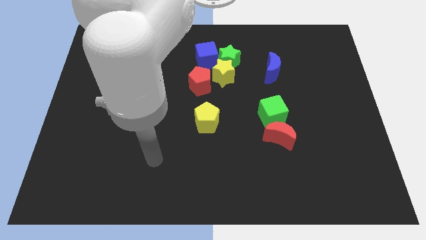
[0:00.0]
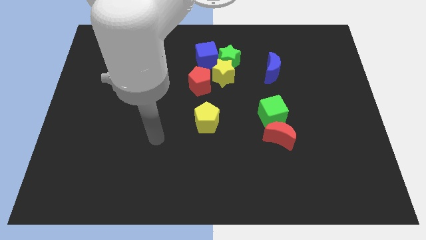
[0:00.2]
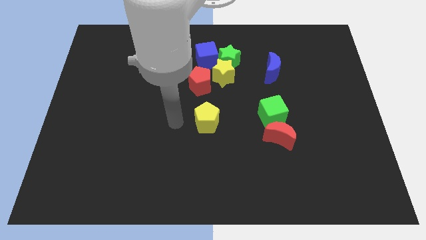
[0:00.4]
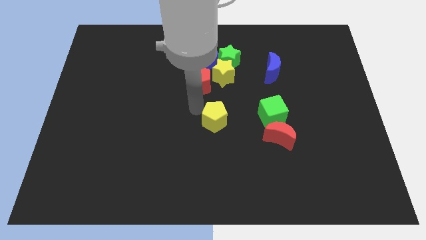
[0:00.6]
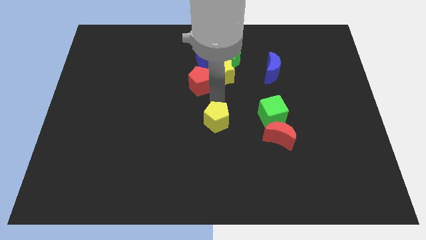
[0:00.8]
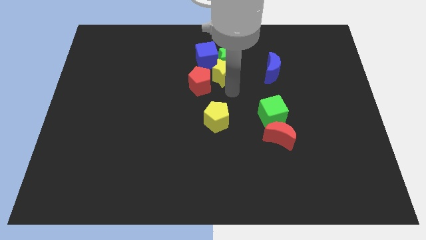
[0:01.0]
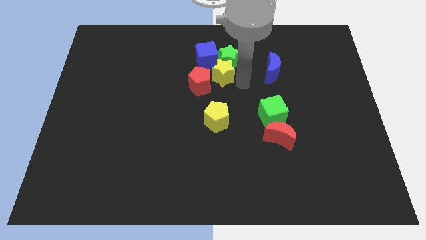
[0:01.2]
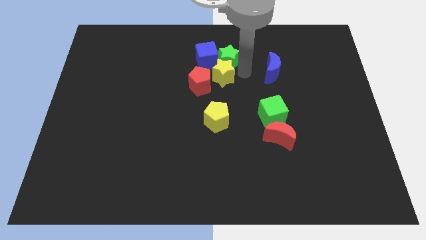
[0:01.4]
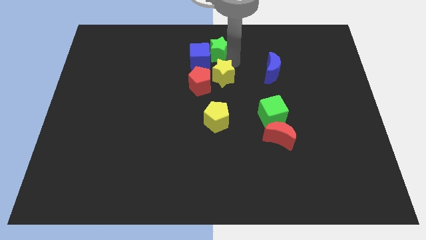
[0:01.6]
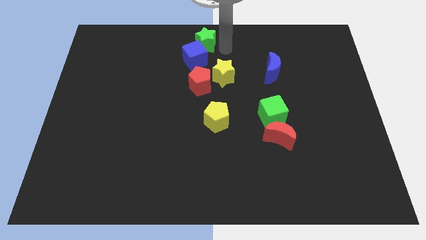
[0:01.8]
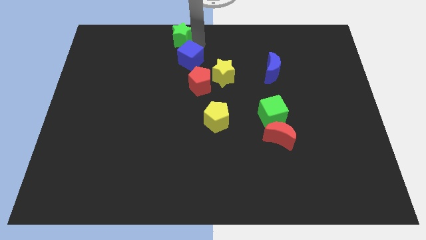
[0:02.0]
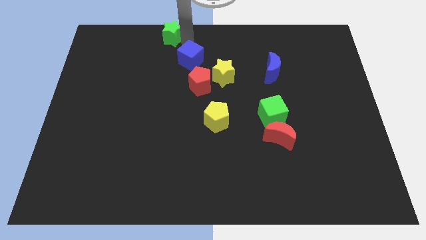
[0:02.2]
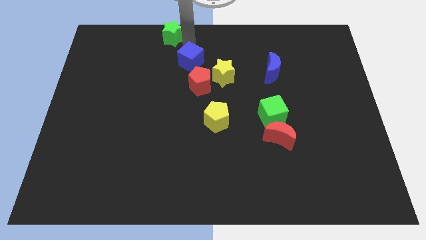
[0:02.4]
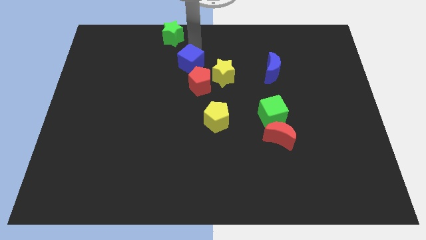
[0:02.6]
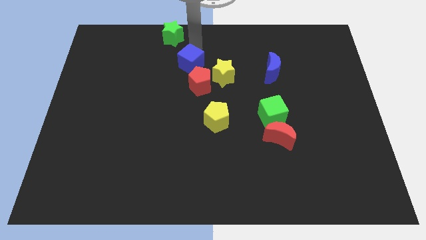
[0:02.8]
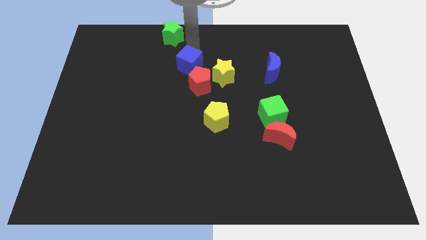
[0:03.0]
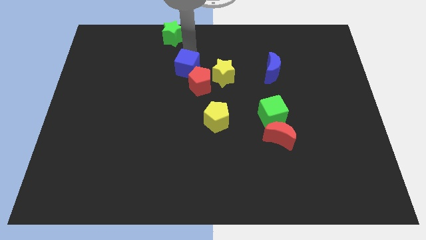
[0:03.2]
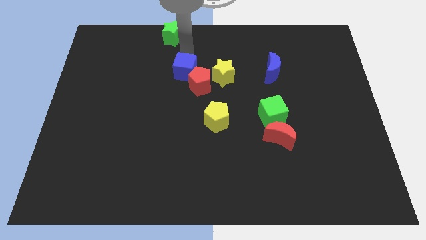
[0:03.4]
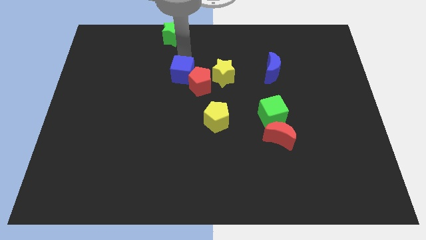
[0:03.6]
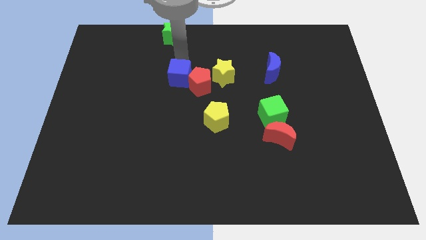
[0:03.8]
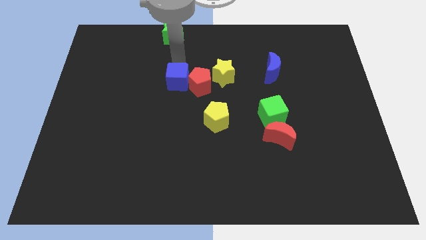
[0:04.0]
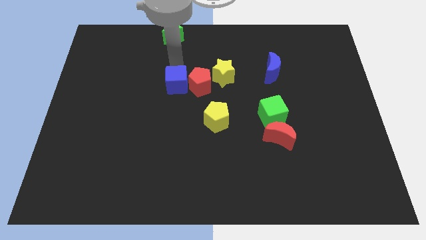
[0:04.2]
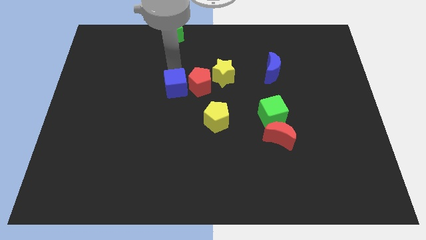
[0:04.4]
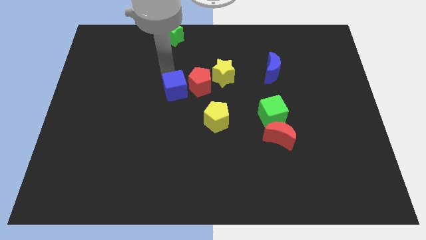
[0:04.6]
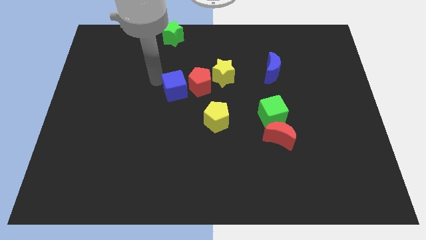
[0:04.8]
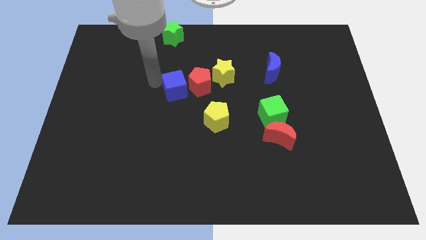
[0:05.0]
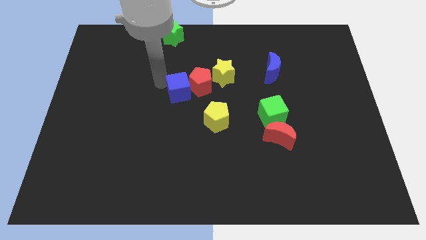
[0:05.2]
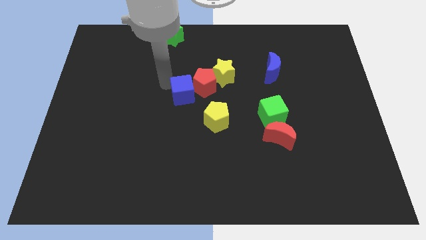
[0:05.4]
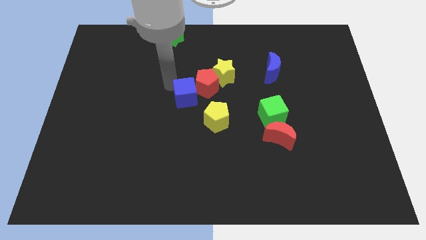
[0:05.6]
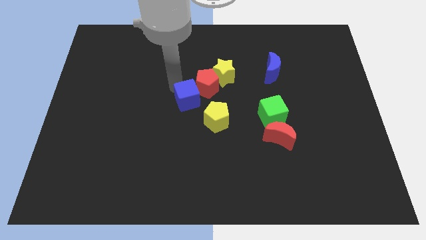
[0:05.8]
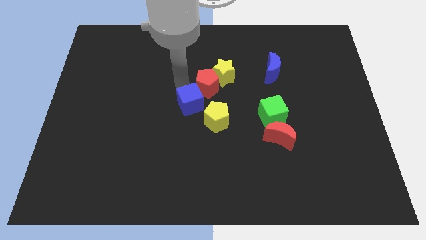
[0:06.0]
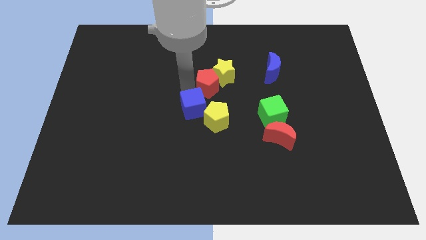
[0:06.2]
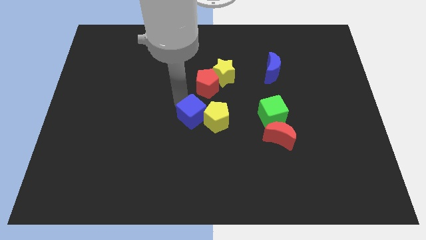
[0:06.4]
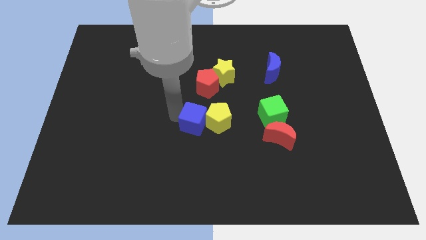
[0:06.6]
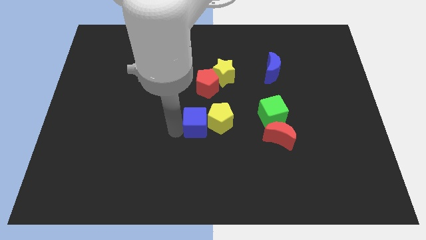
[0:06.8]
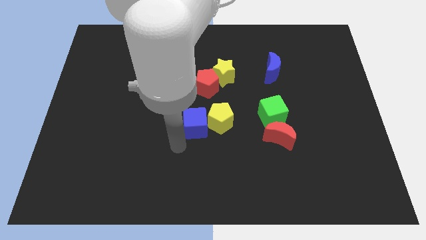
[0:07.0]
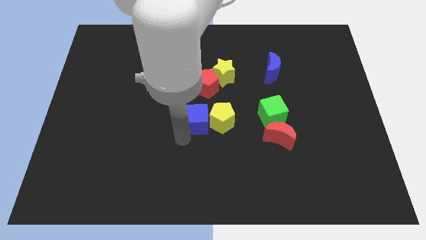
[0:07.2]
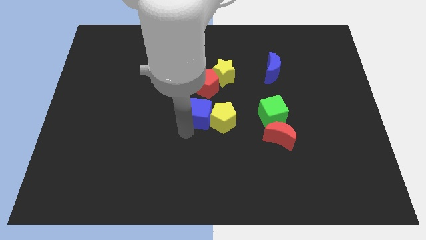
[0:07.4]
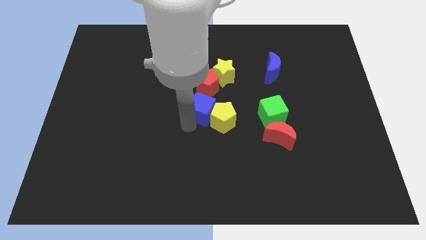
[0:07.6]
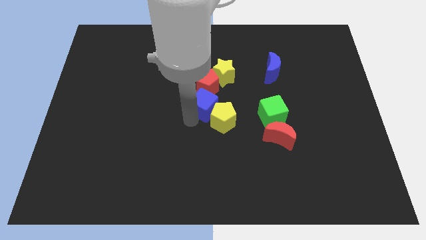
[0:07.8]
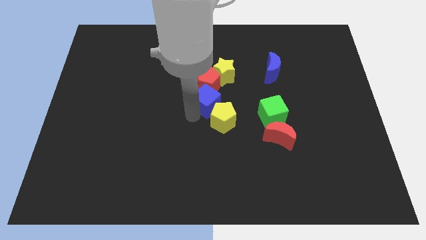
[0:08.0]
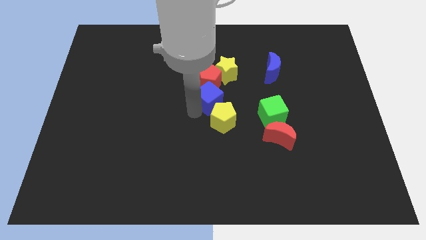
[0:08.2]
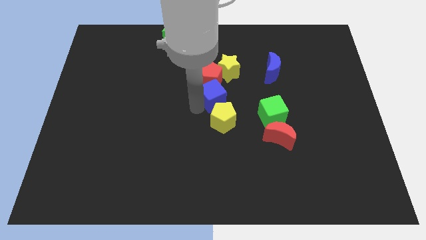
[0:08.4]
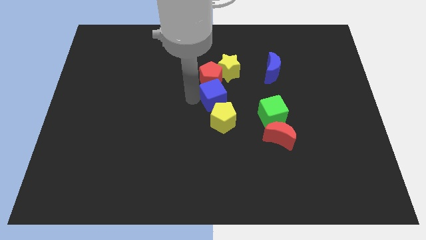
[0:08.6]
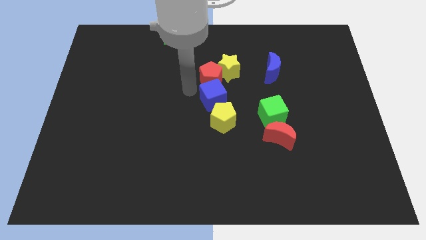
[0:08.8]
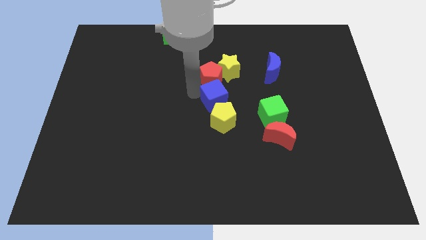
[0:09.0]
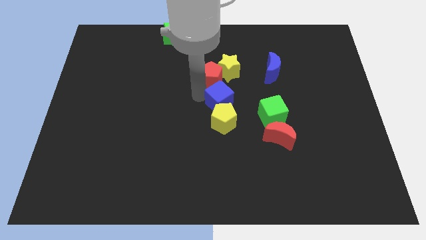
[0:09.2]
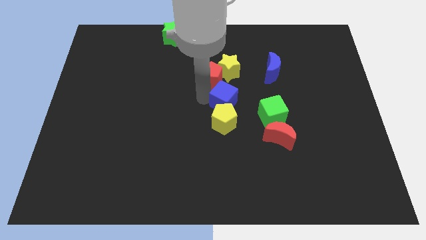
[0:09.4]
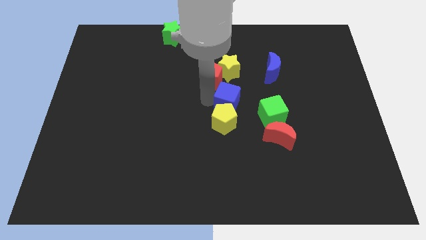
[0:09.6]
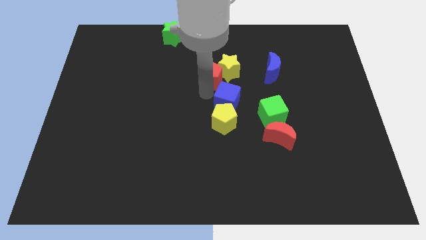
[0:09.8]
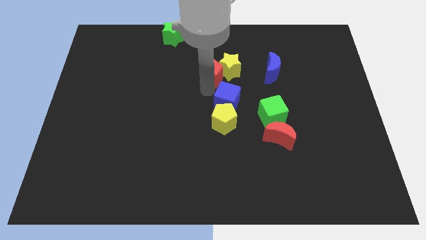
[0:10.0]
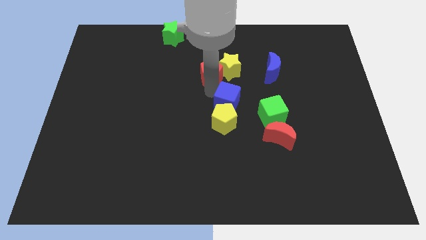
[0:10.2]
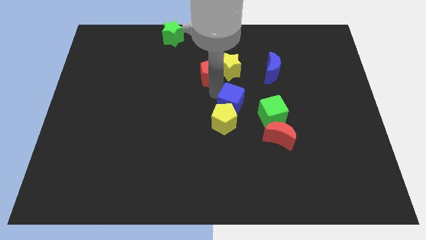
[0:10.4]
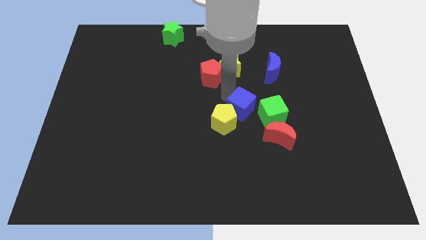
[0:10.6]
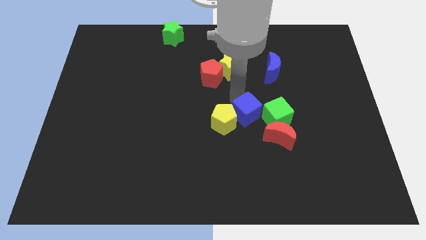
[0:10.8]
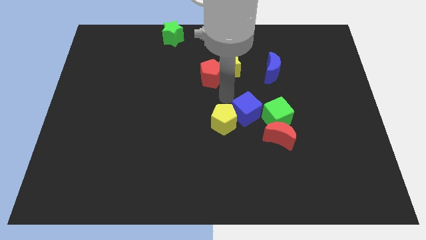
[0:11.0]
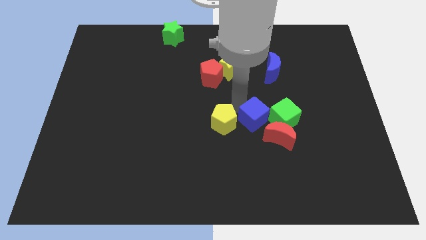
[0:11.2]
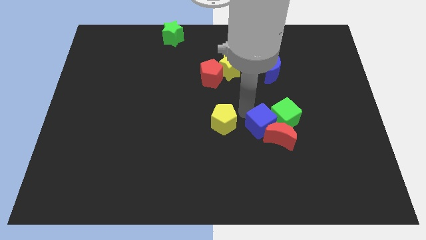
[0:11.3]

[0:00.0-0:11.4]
move the blue cube next to the red moon

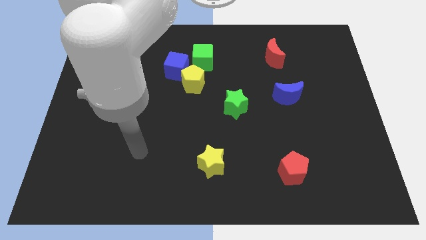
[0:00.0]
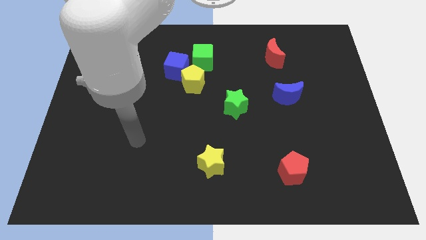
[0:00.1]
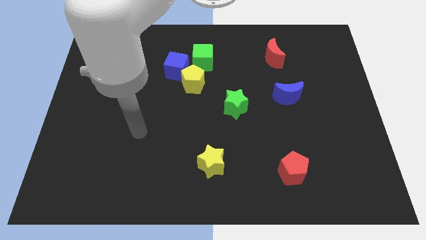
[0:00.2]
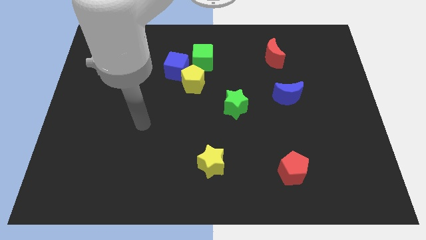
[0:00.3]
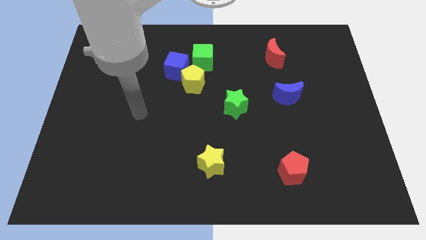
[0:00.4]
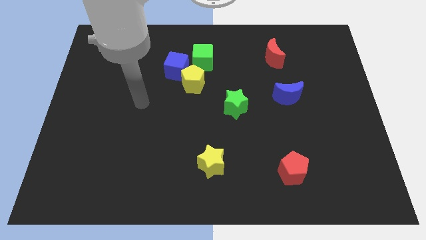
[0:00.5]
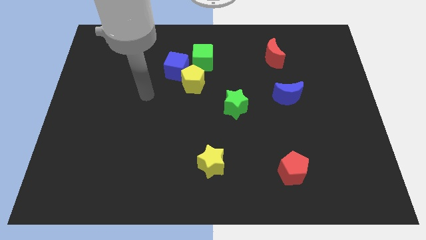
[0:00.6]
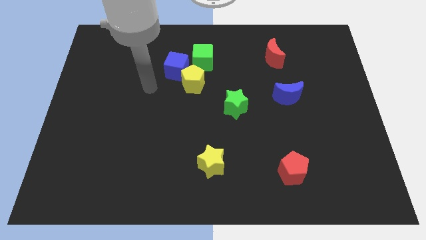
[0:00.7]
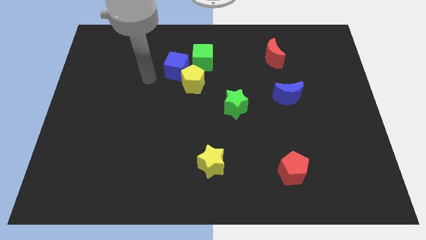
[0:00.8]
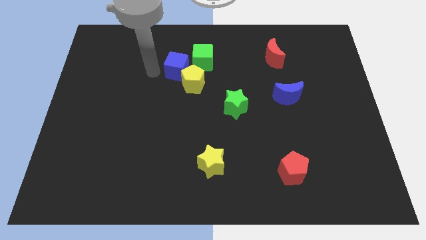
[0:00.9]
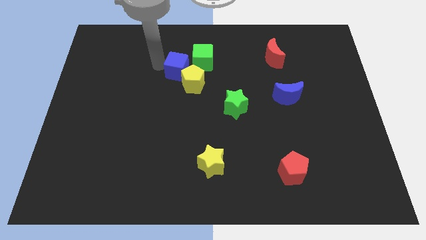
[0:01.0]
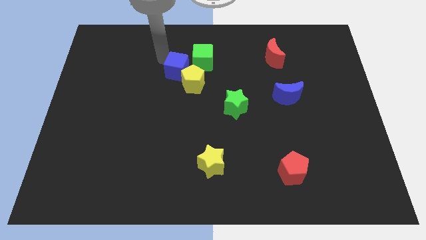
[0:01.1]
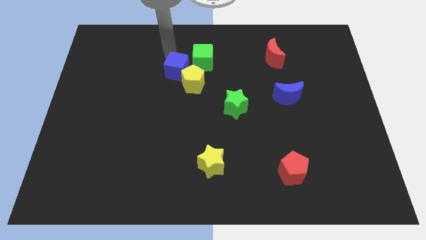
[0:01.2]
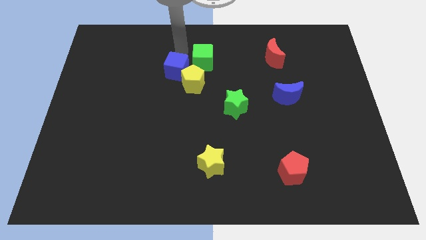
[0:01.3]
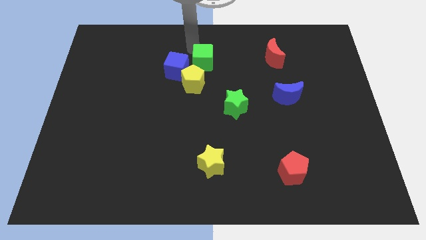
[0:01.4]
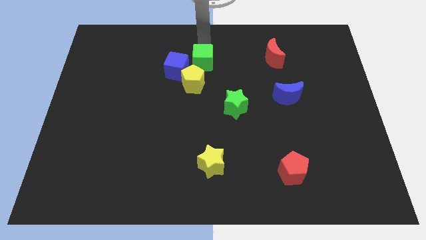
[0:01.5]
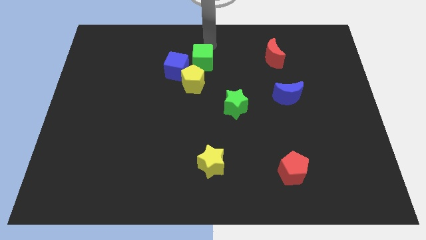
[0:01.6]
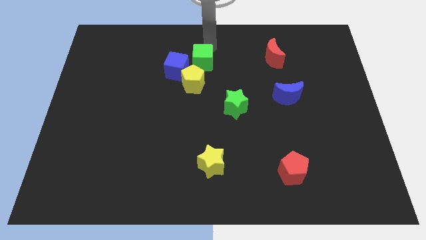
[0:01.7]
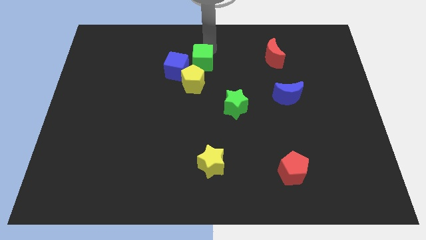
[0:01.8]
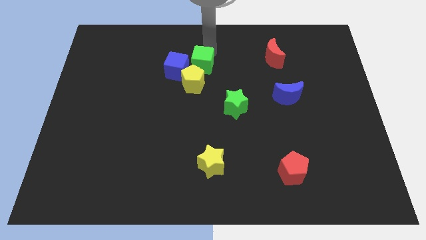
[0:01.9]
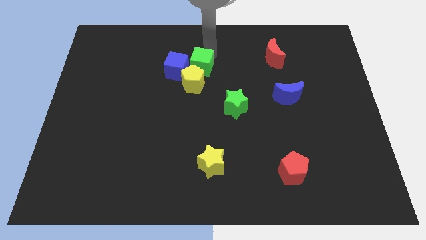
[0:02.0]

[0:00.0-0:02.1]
slide the green cube next to the yellow pentagon
